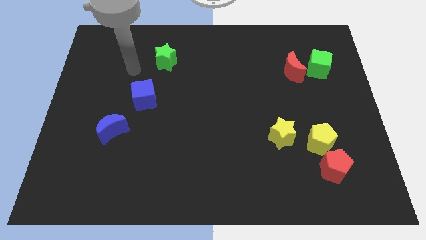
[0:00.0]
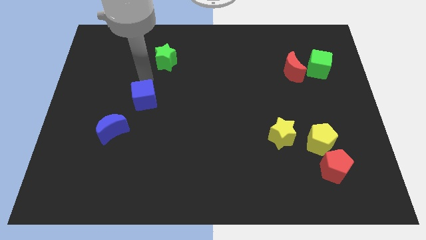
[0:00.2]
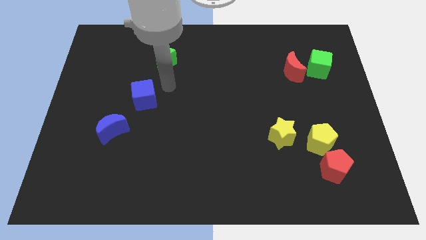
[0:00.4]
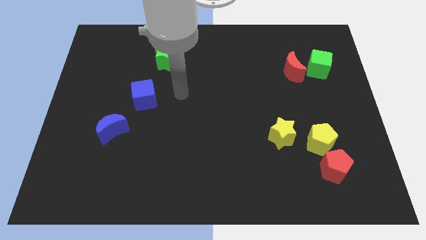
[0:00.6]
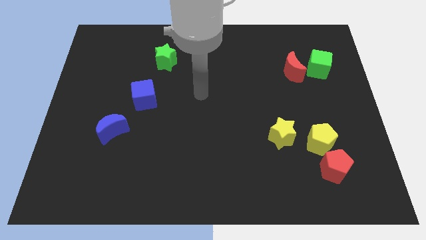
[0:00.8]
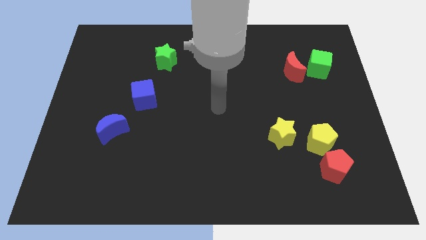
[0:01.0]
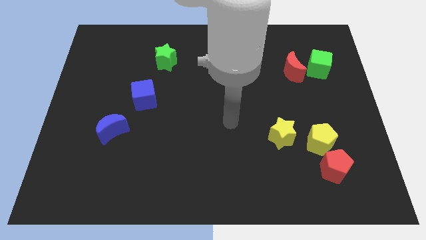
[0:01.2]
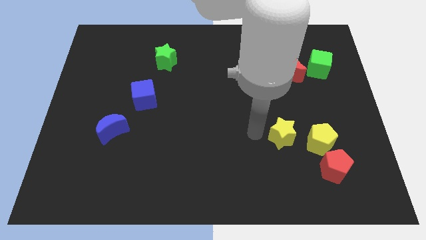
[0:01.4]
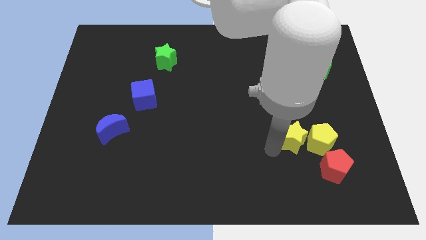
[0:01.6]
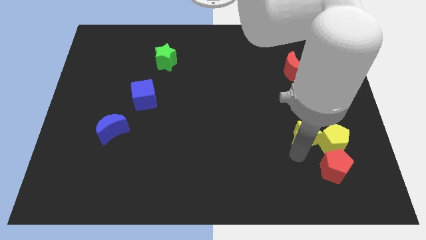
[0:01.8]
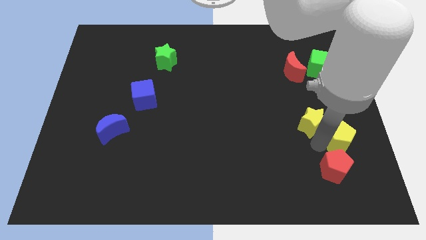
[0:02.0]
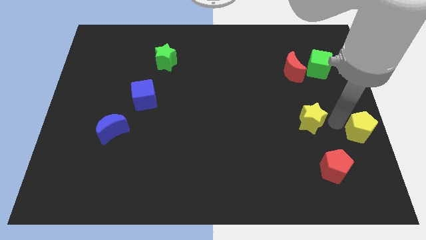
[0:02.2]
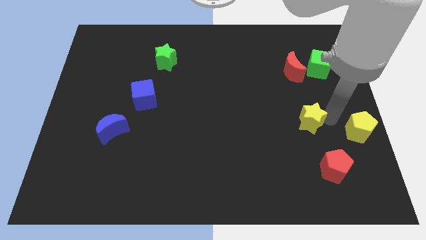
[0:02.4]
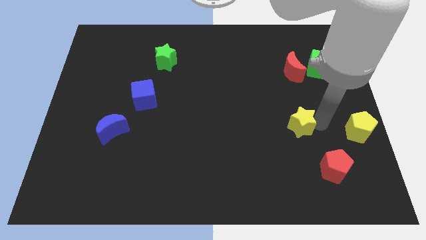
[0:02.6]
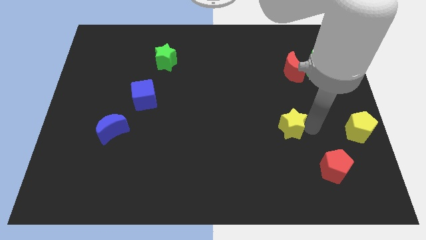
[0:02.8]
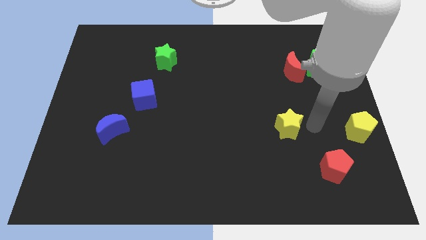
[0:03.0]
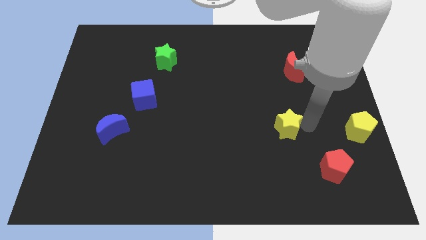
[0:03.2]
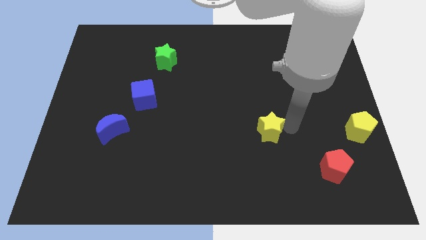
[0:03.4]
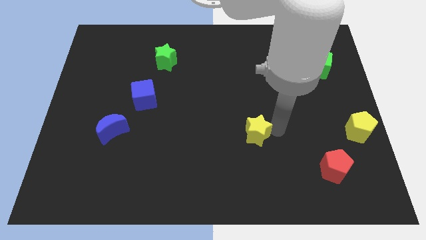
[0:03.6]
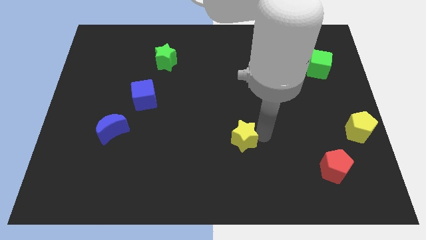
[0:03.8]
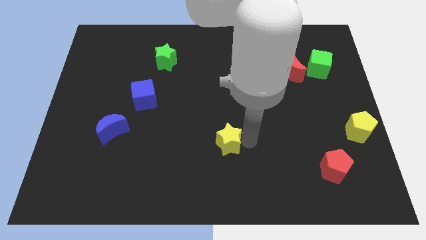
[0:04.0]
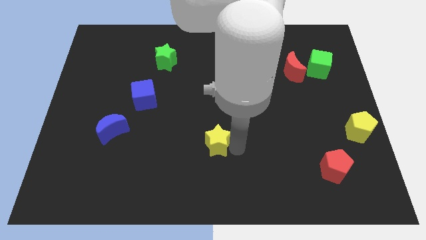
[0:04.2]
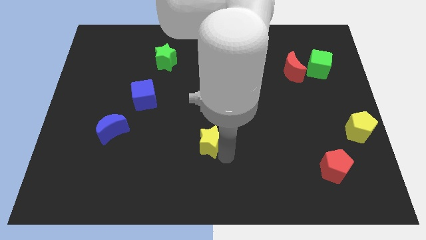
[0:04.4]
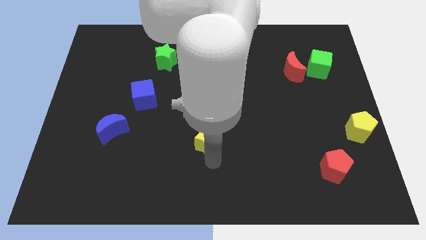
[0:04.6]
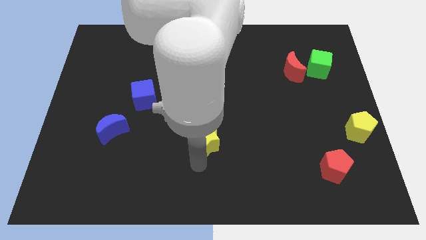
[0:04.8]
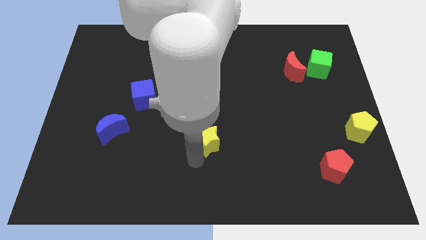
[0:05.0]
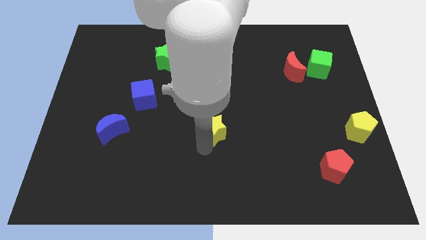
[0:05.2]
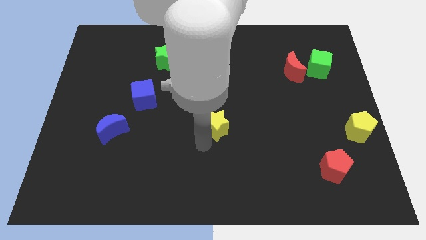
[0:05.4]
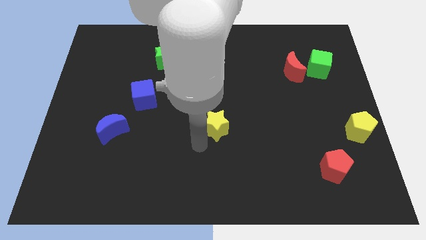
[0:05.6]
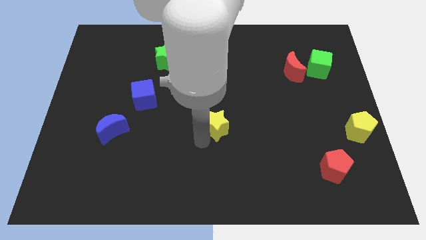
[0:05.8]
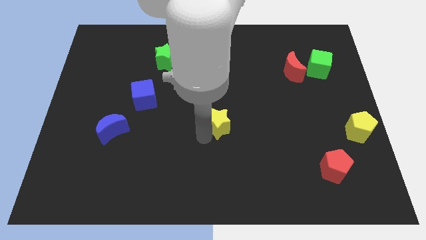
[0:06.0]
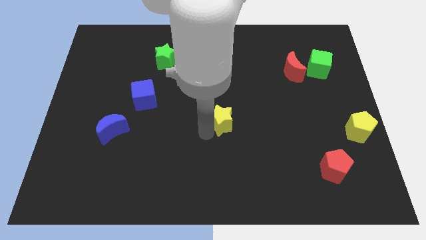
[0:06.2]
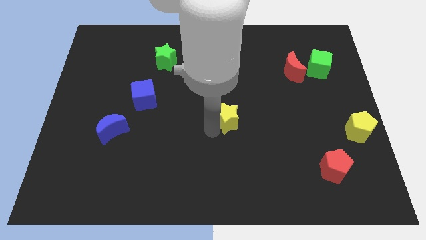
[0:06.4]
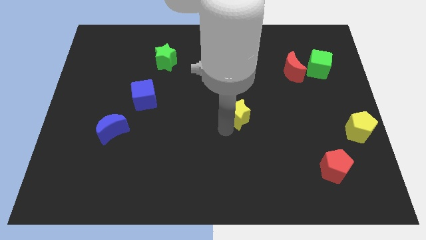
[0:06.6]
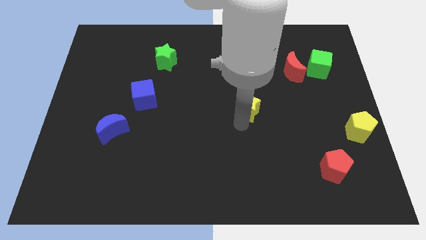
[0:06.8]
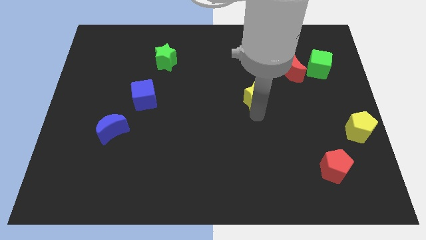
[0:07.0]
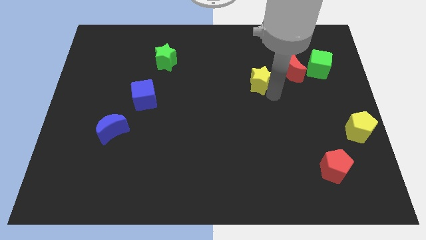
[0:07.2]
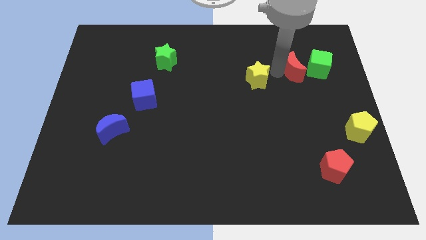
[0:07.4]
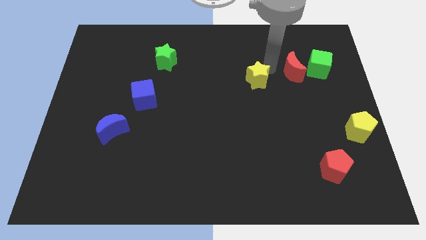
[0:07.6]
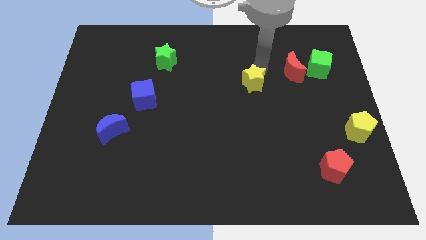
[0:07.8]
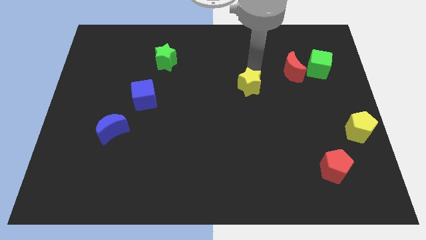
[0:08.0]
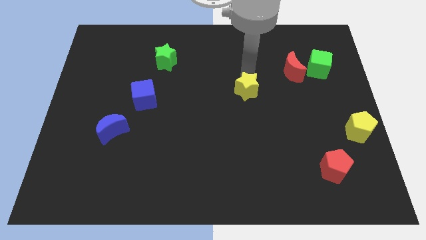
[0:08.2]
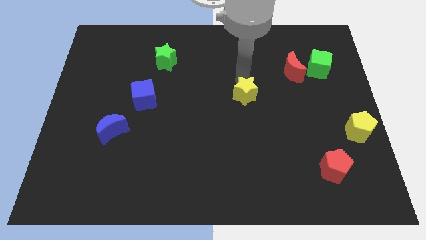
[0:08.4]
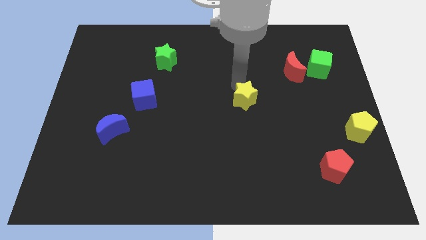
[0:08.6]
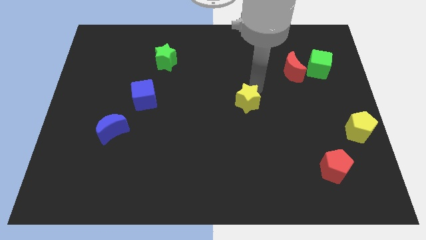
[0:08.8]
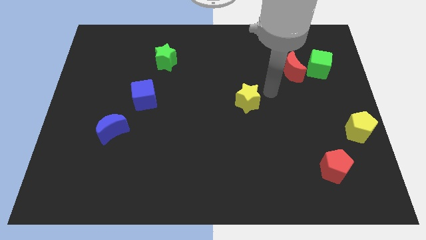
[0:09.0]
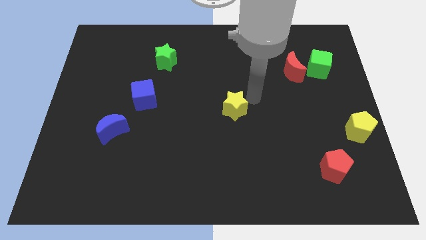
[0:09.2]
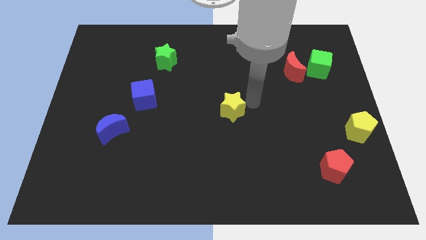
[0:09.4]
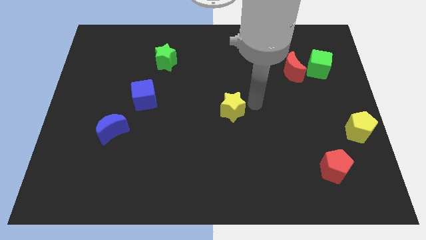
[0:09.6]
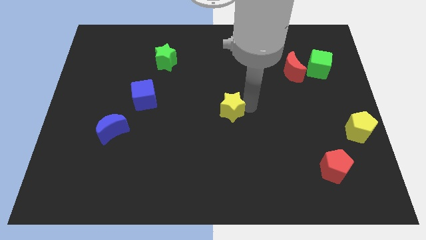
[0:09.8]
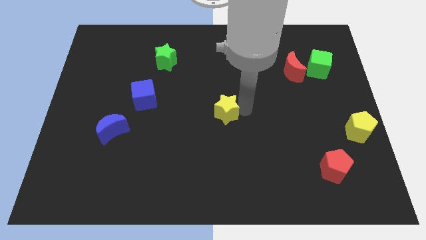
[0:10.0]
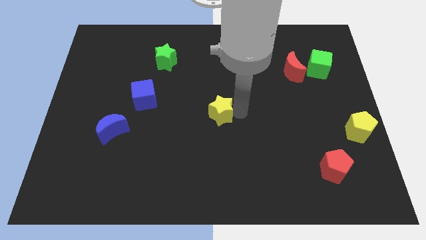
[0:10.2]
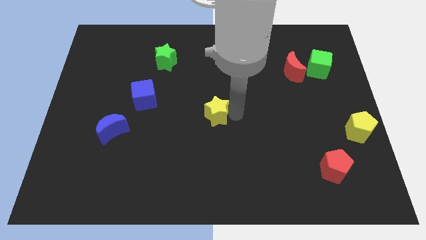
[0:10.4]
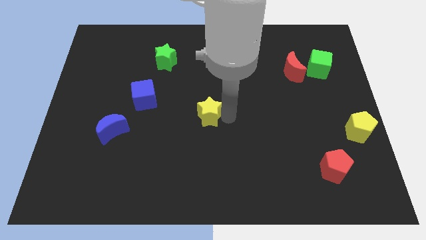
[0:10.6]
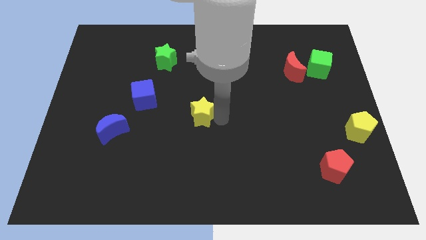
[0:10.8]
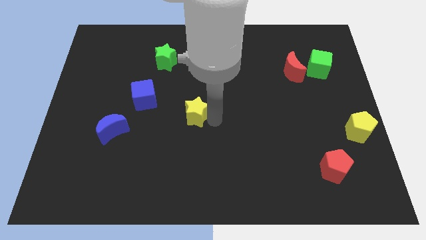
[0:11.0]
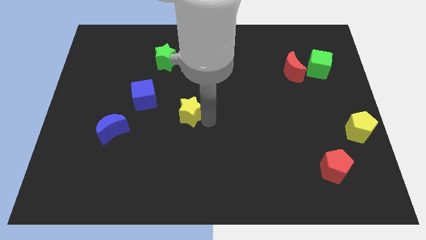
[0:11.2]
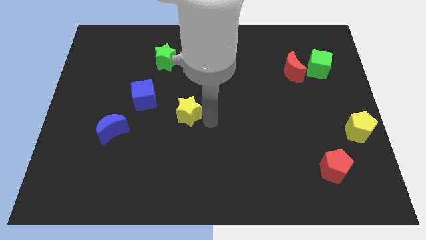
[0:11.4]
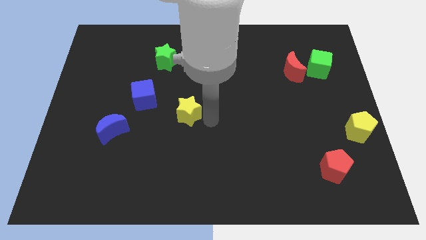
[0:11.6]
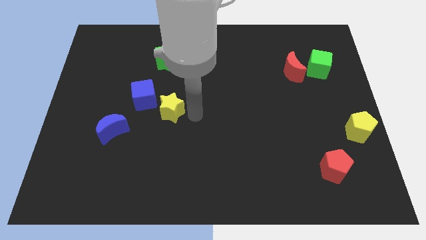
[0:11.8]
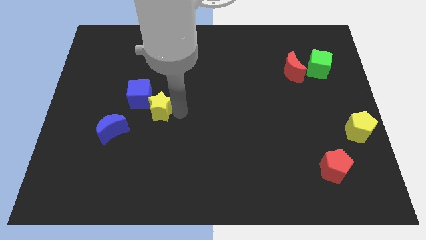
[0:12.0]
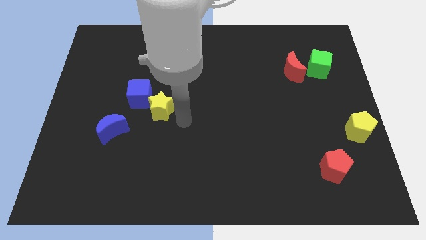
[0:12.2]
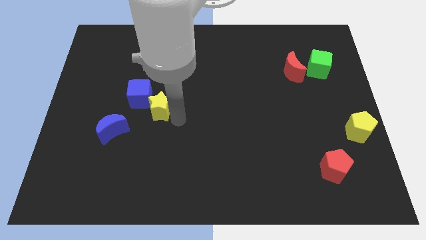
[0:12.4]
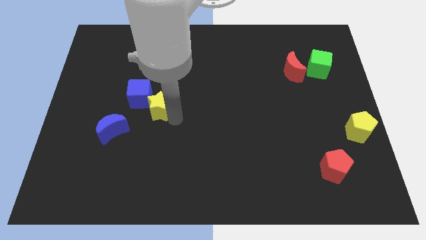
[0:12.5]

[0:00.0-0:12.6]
put the yellow star to the blue cube

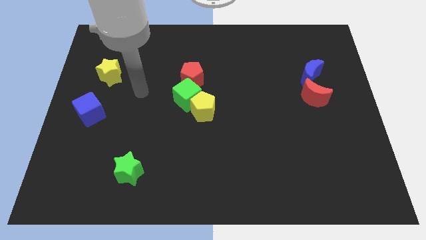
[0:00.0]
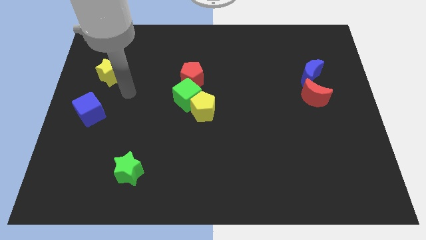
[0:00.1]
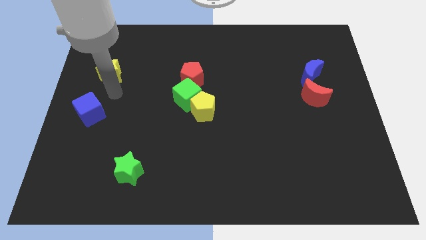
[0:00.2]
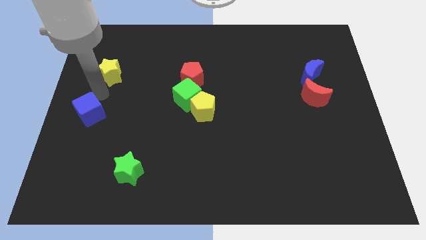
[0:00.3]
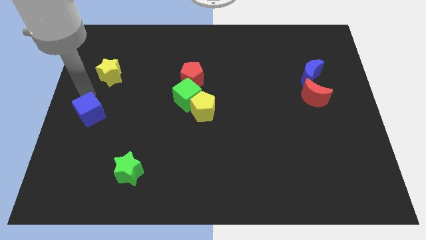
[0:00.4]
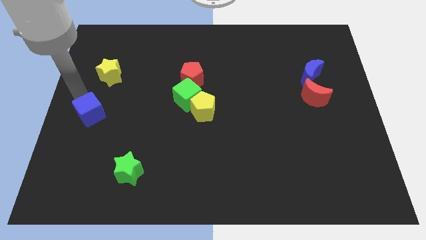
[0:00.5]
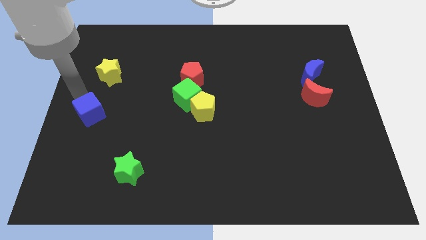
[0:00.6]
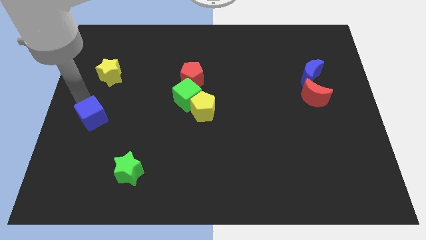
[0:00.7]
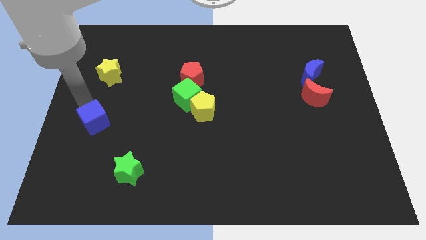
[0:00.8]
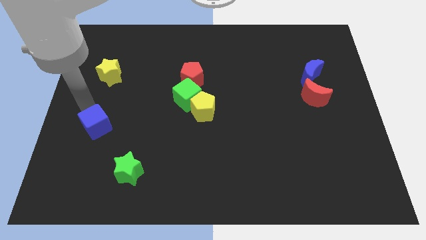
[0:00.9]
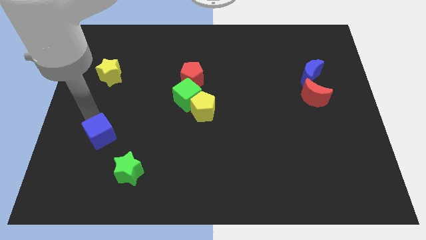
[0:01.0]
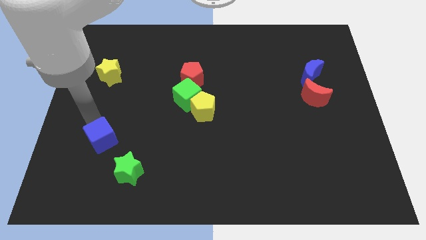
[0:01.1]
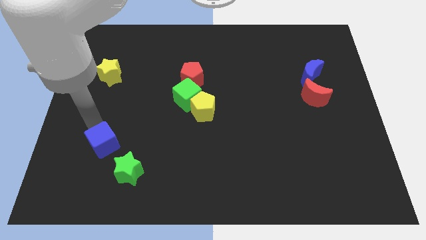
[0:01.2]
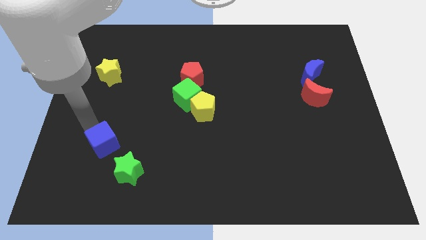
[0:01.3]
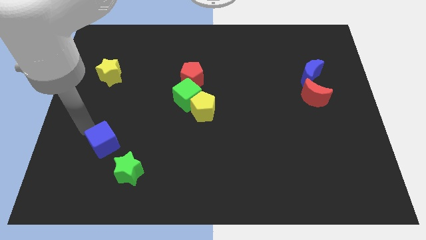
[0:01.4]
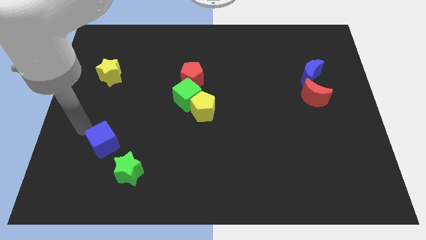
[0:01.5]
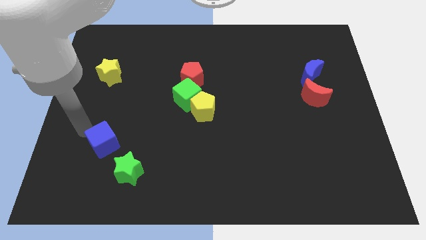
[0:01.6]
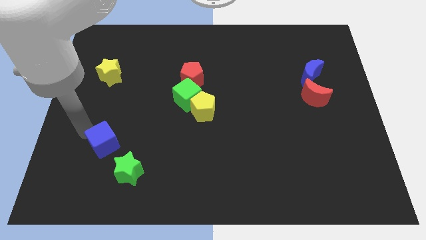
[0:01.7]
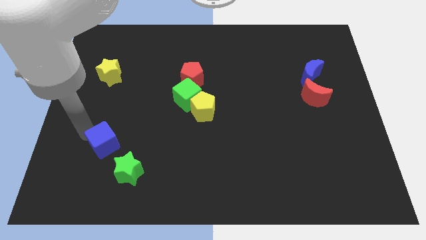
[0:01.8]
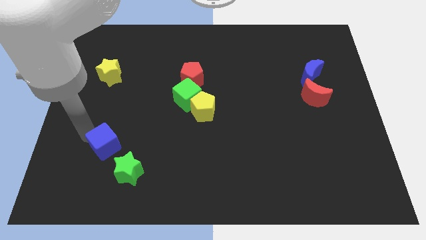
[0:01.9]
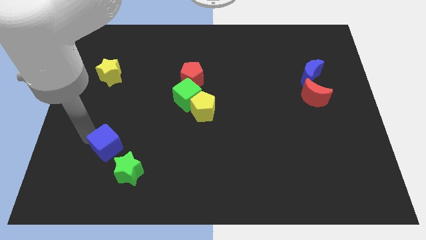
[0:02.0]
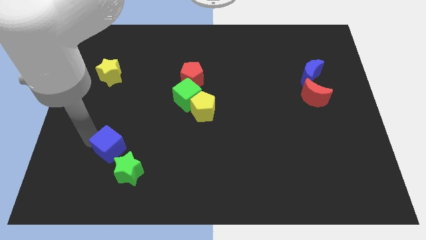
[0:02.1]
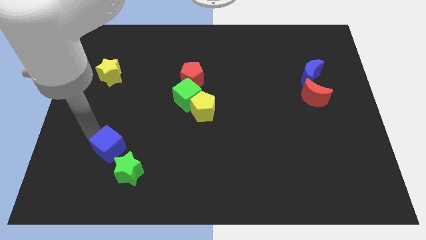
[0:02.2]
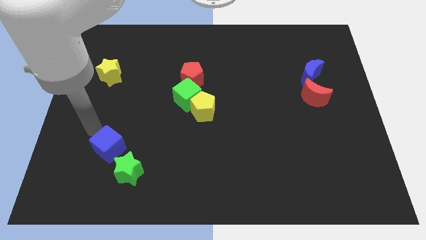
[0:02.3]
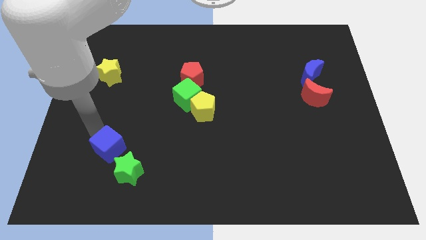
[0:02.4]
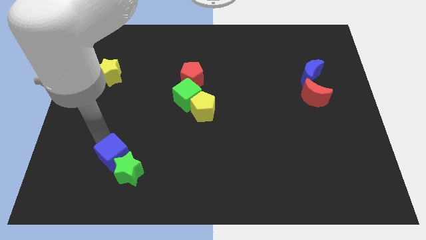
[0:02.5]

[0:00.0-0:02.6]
put the blue cube close to the green star
